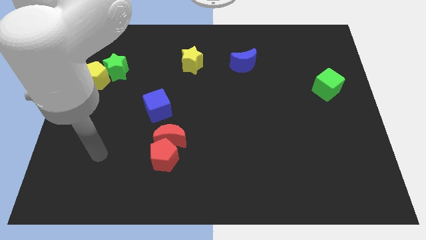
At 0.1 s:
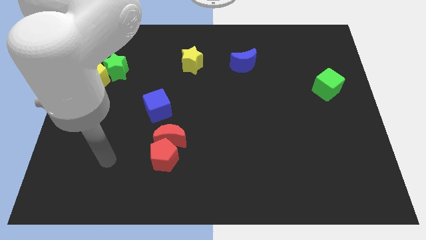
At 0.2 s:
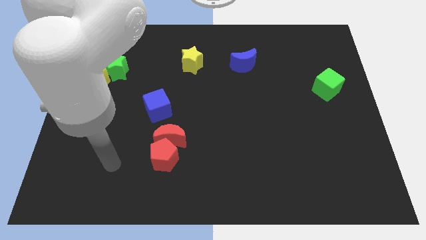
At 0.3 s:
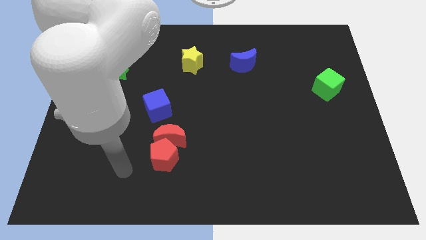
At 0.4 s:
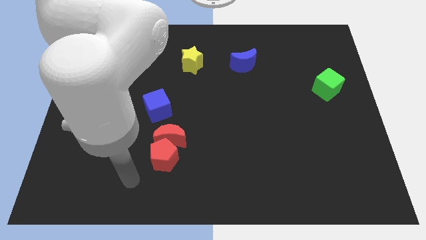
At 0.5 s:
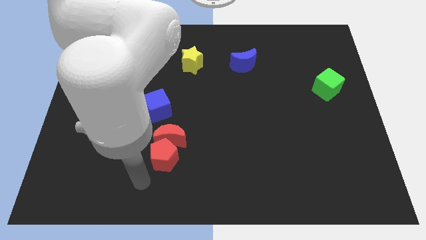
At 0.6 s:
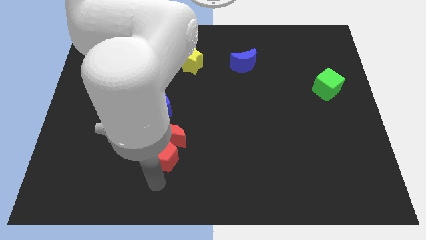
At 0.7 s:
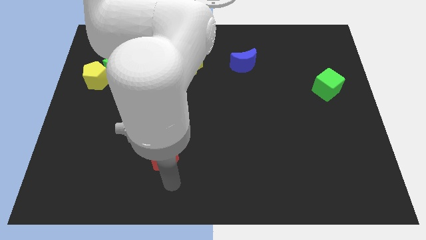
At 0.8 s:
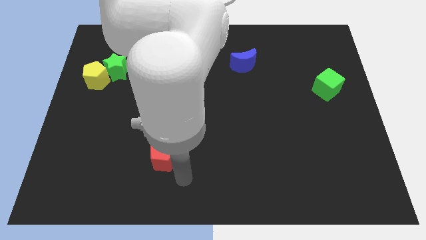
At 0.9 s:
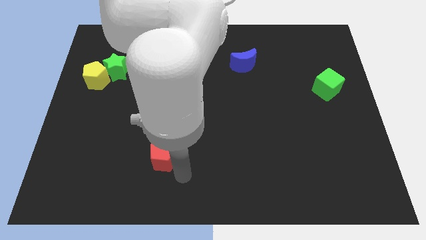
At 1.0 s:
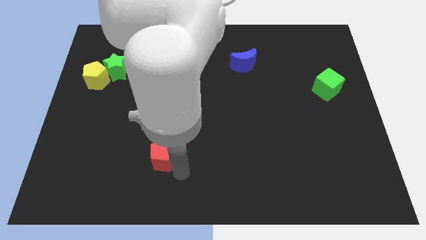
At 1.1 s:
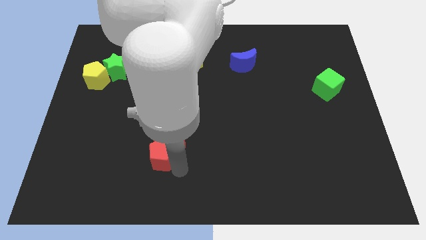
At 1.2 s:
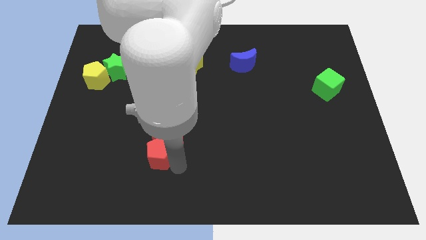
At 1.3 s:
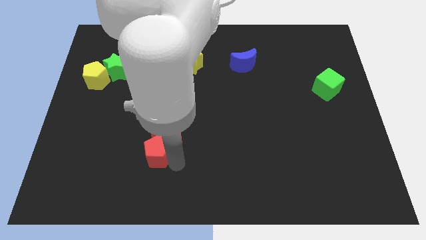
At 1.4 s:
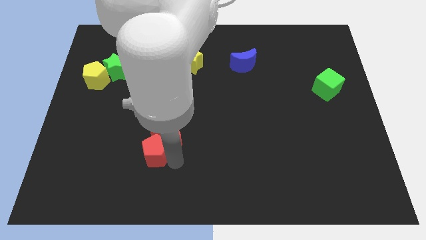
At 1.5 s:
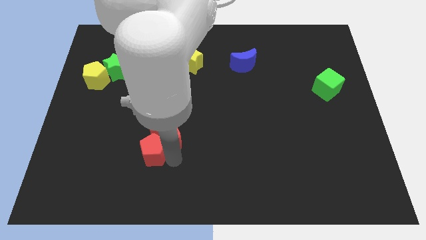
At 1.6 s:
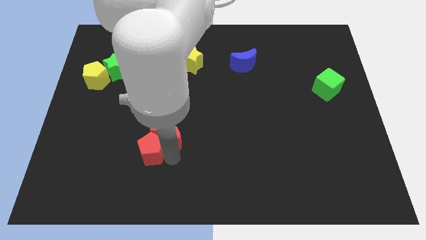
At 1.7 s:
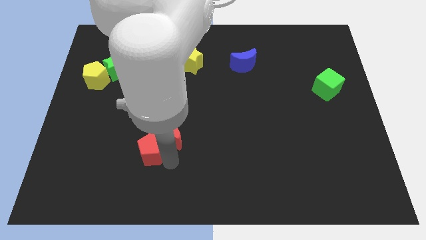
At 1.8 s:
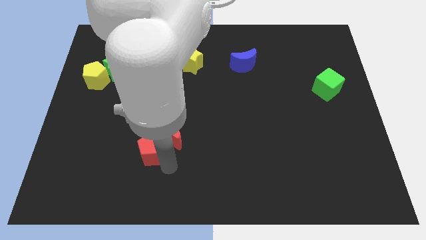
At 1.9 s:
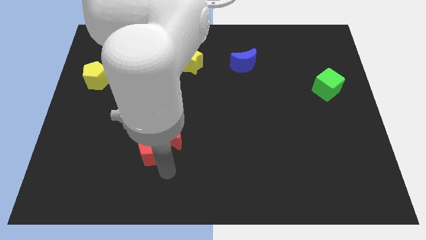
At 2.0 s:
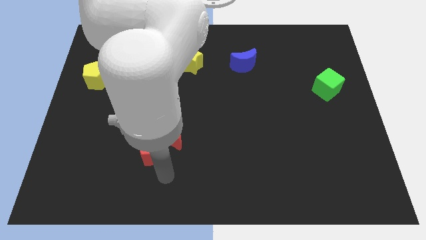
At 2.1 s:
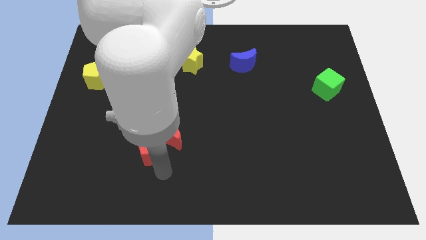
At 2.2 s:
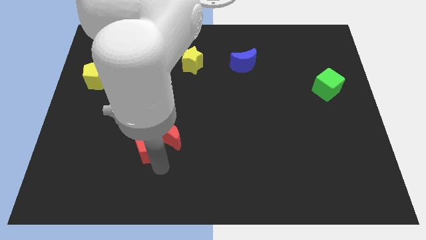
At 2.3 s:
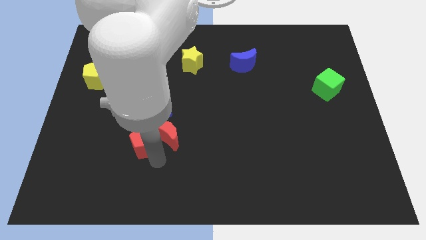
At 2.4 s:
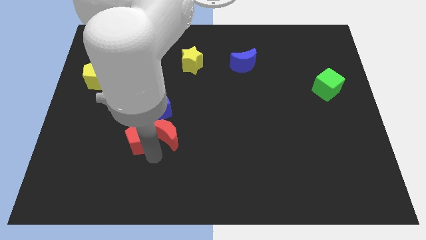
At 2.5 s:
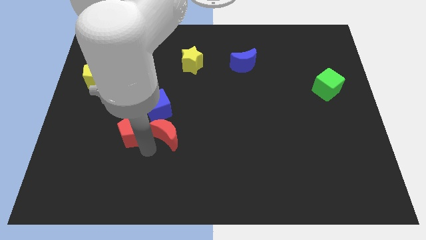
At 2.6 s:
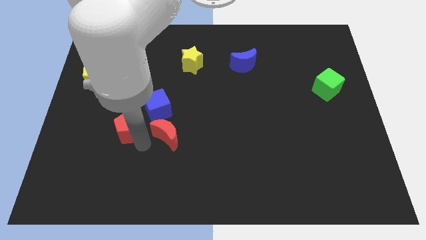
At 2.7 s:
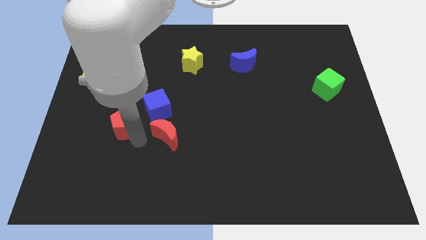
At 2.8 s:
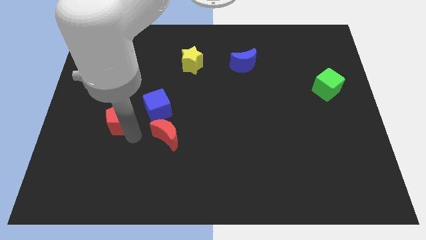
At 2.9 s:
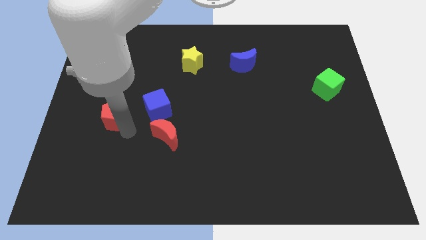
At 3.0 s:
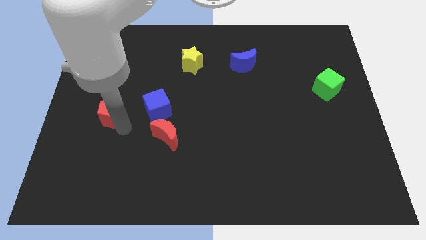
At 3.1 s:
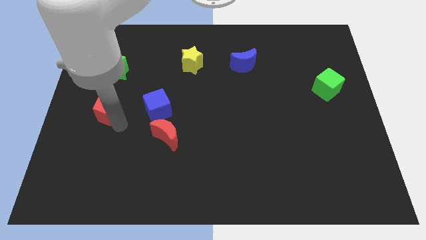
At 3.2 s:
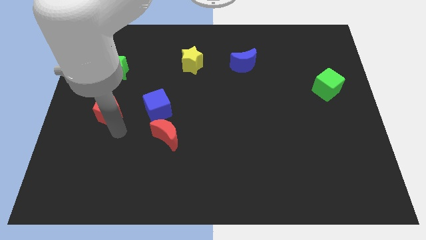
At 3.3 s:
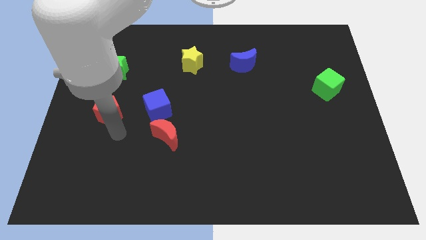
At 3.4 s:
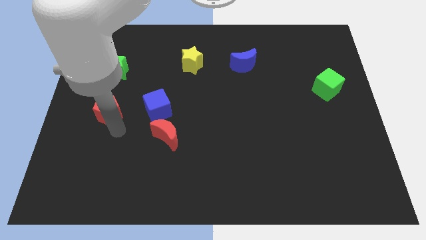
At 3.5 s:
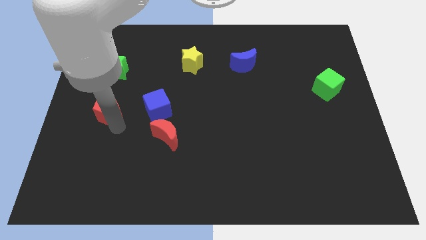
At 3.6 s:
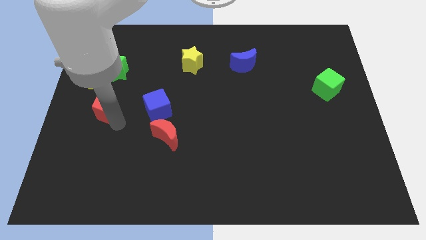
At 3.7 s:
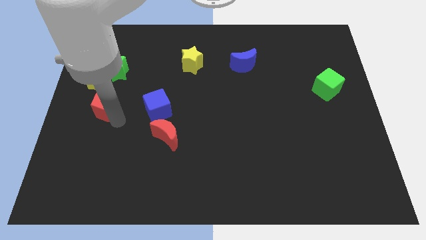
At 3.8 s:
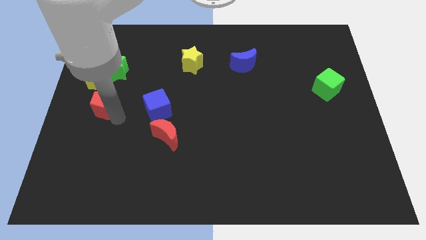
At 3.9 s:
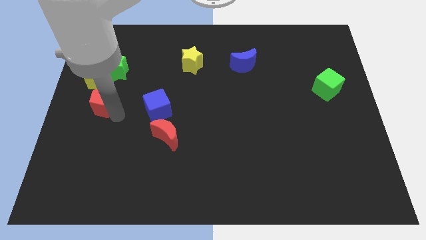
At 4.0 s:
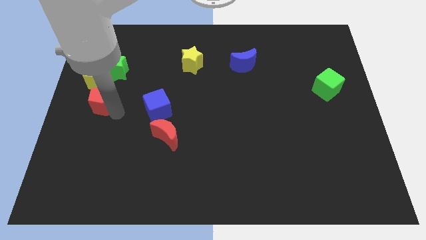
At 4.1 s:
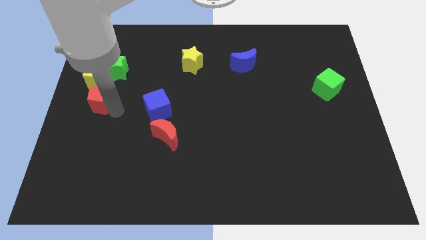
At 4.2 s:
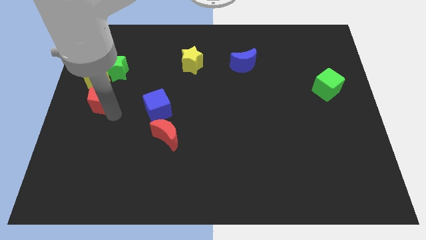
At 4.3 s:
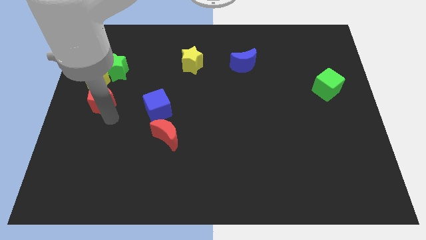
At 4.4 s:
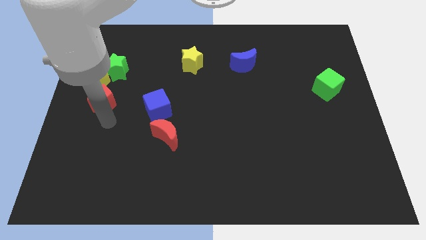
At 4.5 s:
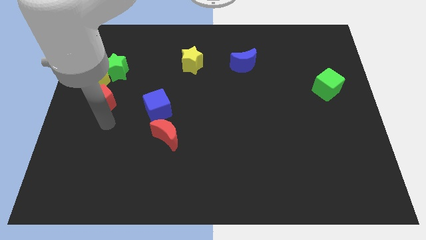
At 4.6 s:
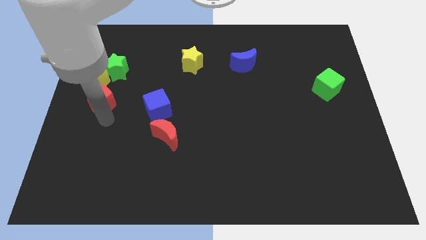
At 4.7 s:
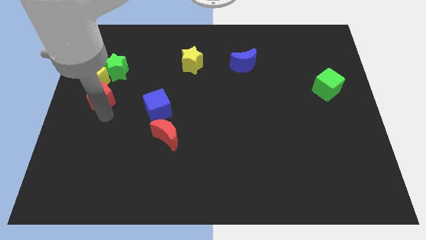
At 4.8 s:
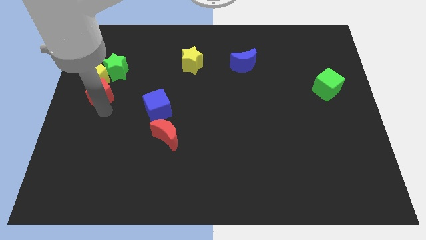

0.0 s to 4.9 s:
put the red pentagon towards the yellow pentagon

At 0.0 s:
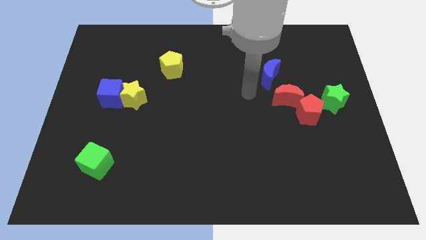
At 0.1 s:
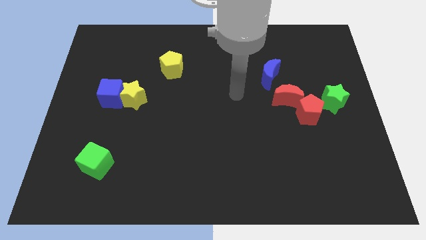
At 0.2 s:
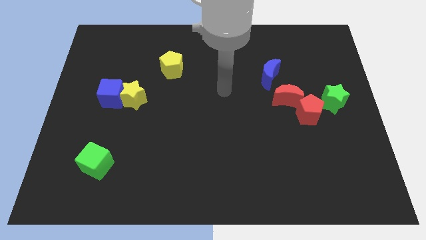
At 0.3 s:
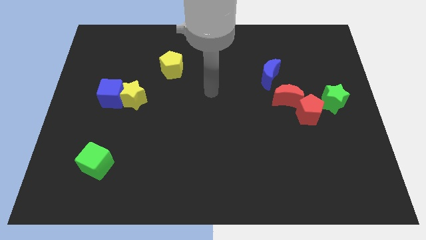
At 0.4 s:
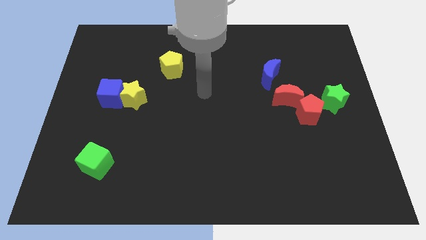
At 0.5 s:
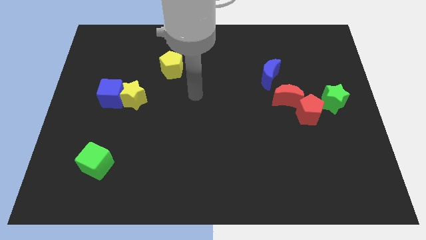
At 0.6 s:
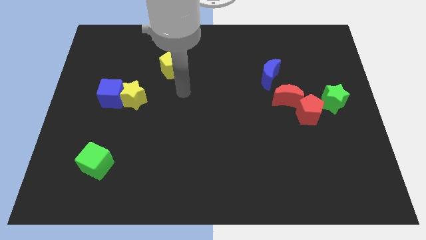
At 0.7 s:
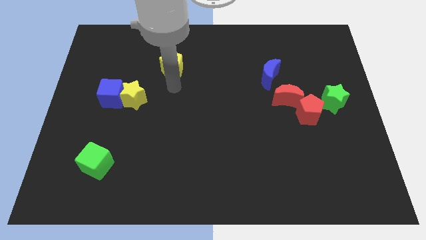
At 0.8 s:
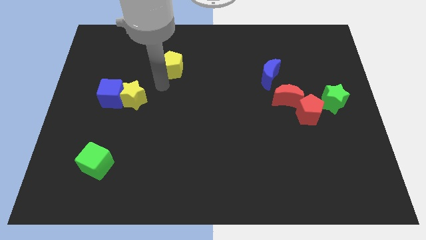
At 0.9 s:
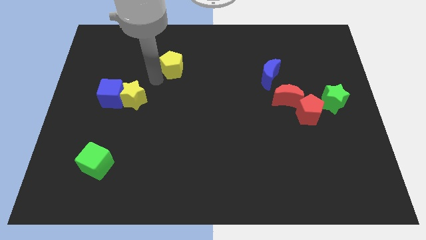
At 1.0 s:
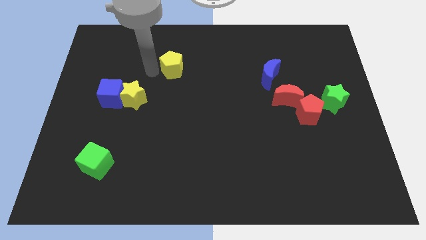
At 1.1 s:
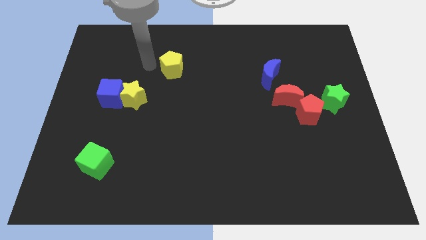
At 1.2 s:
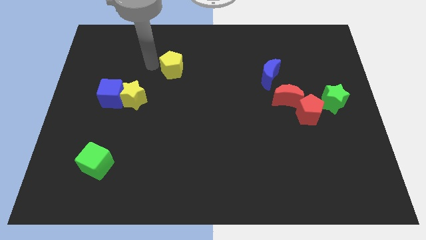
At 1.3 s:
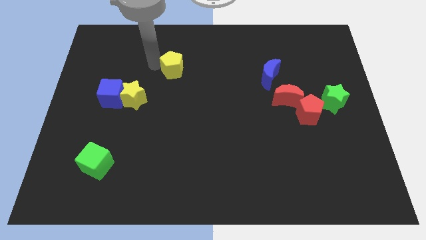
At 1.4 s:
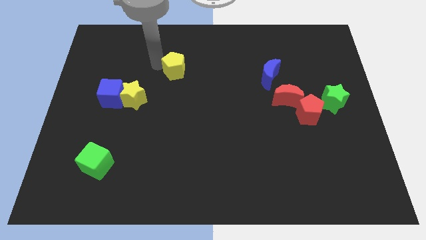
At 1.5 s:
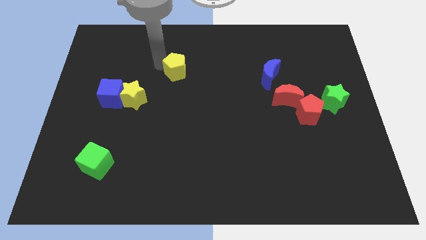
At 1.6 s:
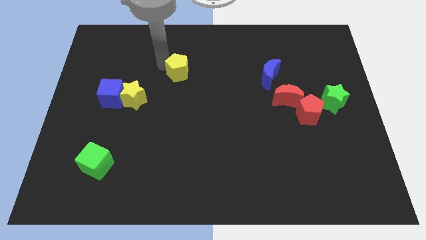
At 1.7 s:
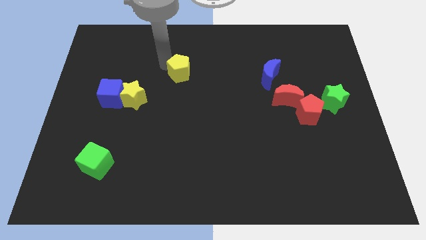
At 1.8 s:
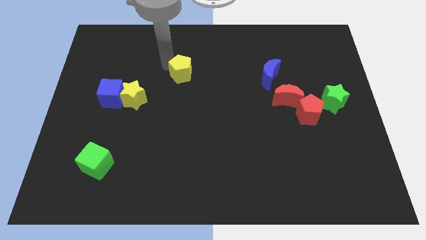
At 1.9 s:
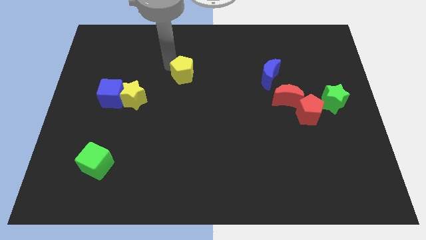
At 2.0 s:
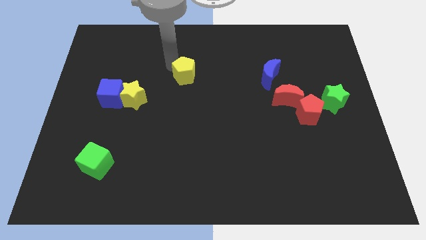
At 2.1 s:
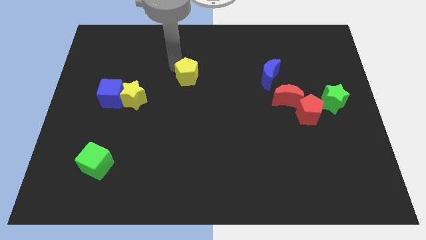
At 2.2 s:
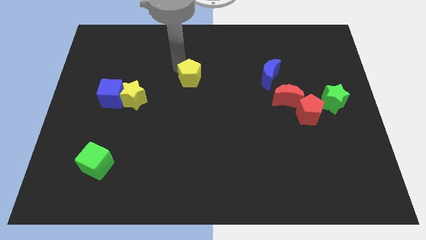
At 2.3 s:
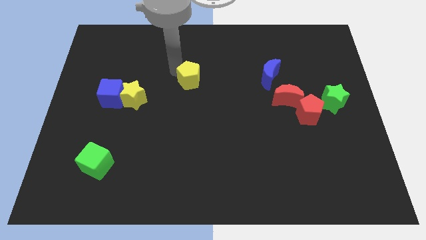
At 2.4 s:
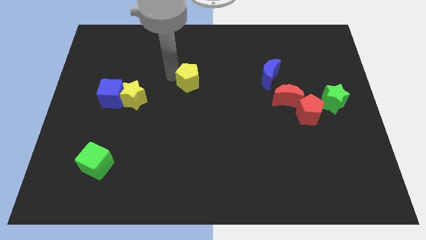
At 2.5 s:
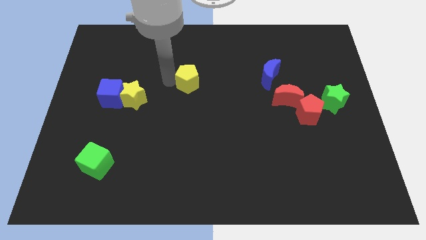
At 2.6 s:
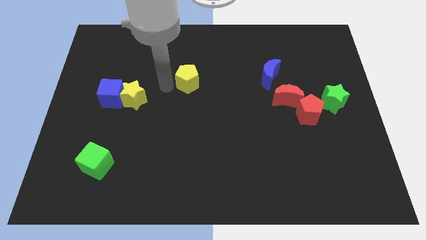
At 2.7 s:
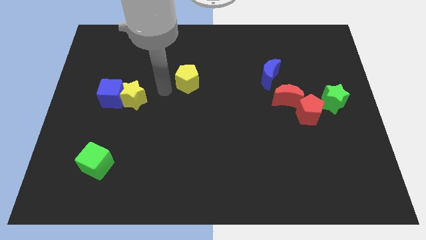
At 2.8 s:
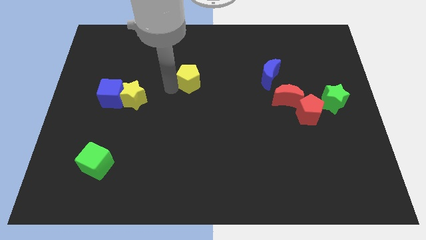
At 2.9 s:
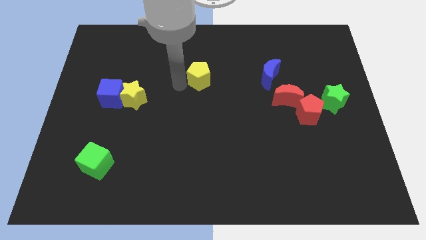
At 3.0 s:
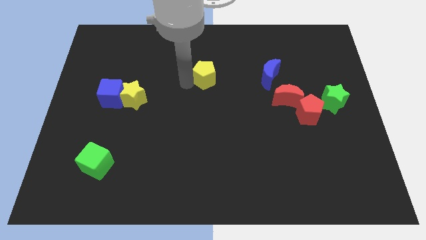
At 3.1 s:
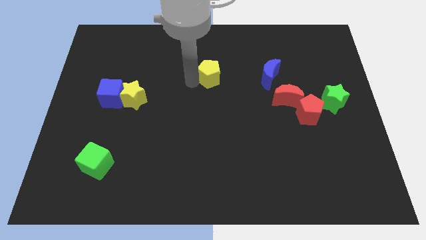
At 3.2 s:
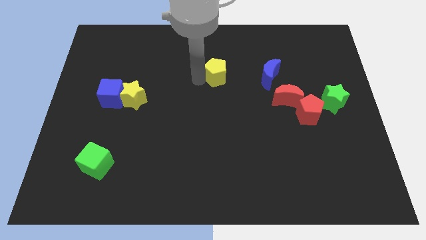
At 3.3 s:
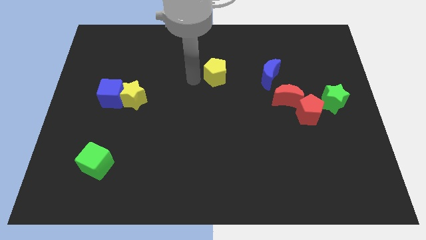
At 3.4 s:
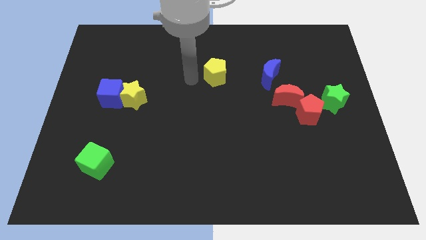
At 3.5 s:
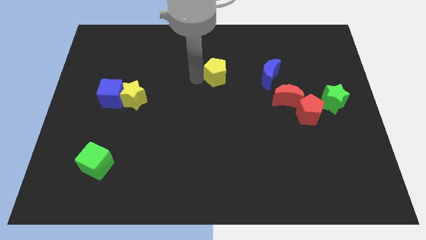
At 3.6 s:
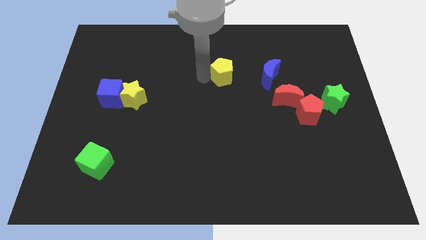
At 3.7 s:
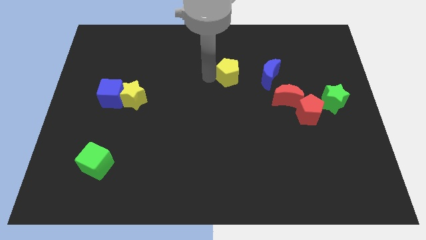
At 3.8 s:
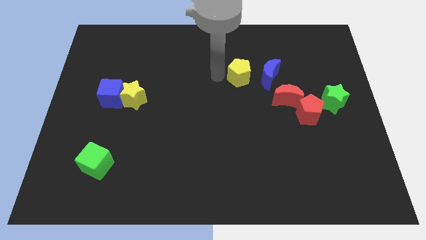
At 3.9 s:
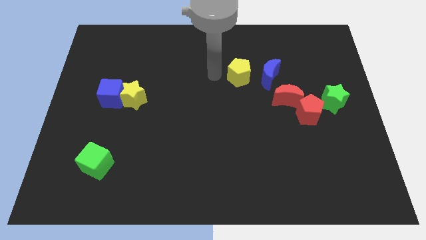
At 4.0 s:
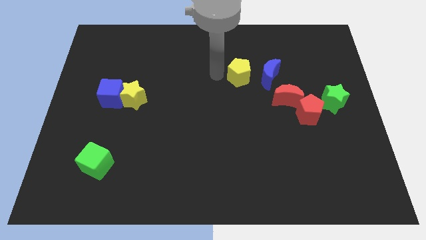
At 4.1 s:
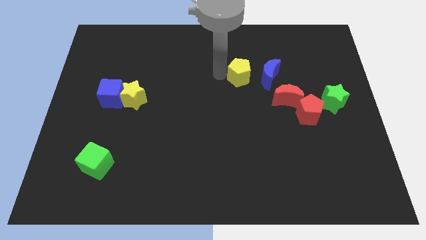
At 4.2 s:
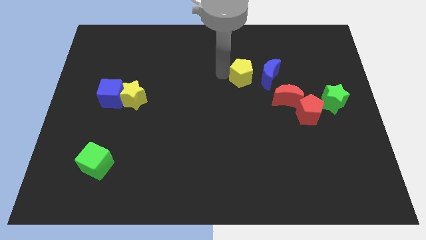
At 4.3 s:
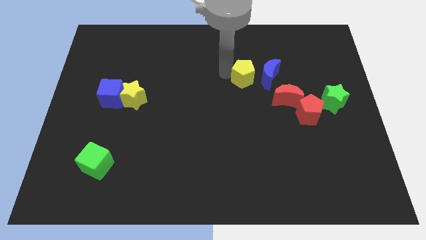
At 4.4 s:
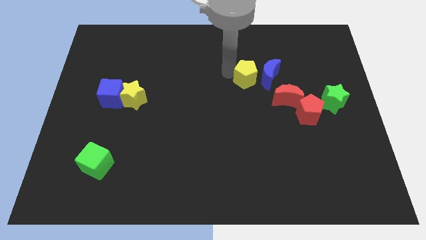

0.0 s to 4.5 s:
slide the yellow pentagon to the blue moon
